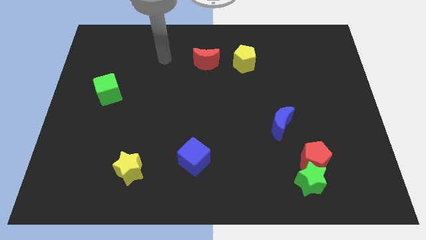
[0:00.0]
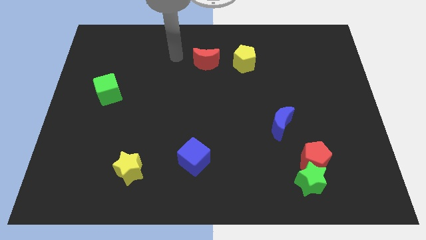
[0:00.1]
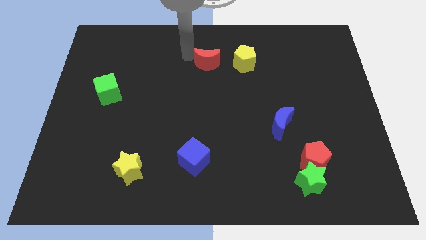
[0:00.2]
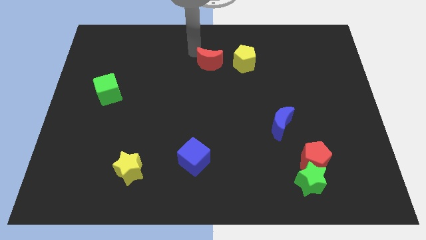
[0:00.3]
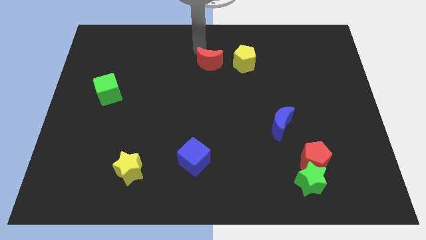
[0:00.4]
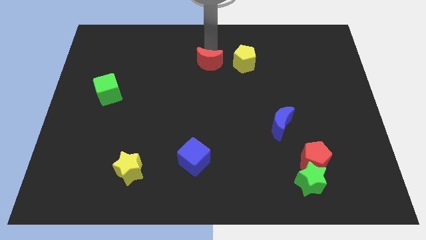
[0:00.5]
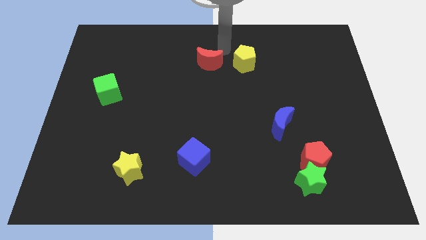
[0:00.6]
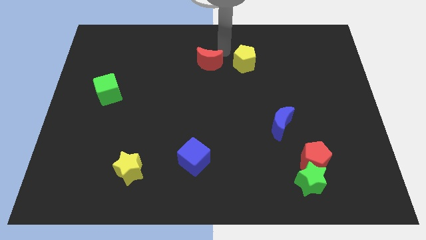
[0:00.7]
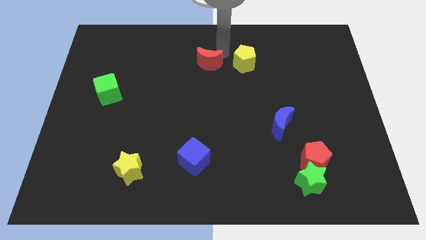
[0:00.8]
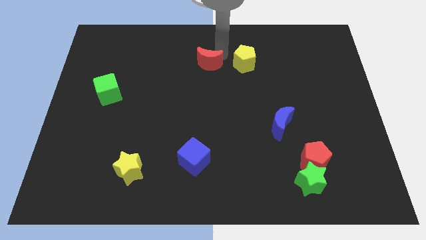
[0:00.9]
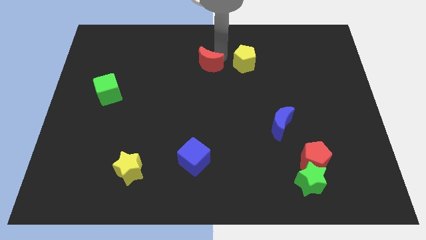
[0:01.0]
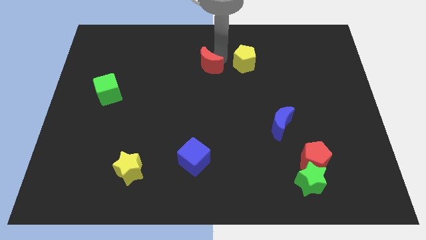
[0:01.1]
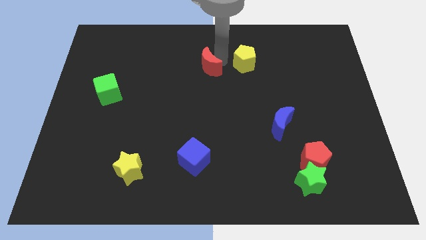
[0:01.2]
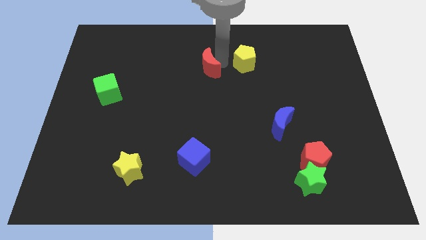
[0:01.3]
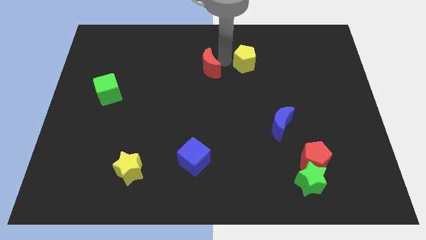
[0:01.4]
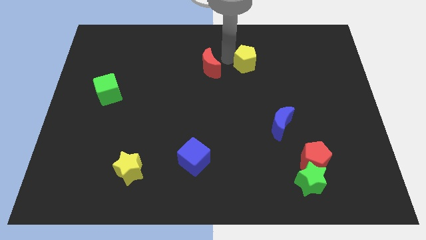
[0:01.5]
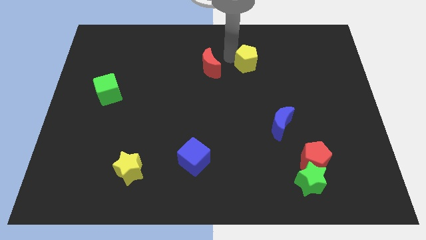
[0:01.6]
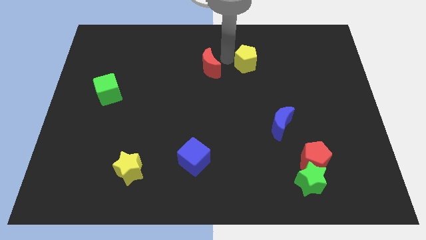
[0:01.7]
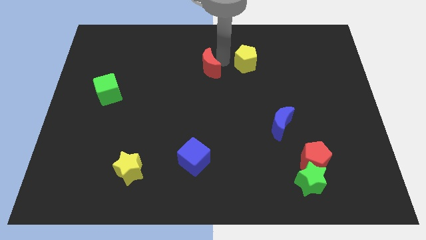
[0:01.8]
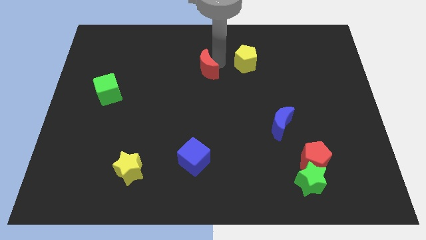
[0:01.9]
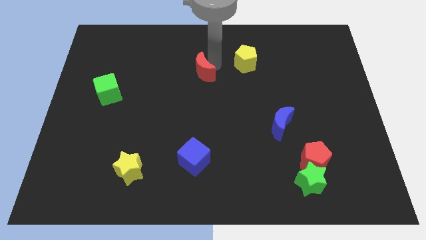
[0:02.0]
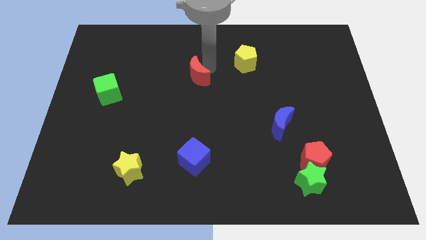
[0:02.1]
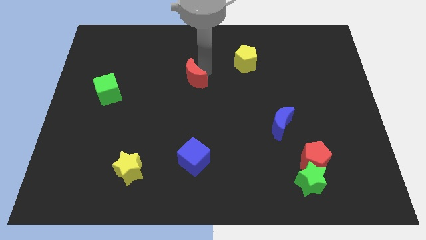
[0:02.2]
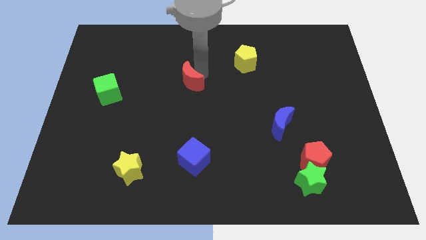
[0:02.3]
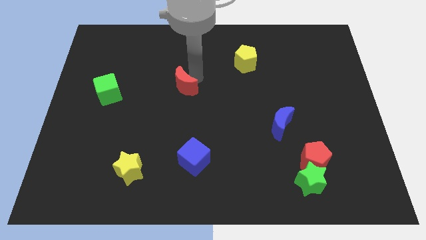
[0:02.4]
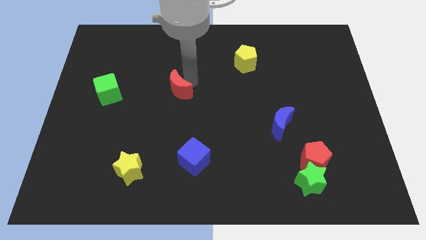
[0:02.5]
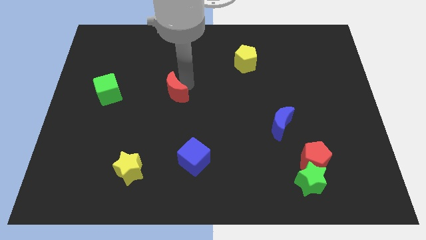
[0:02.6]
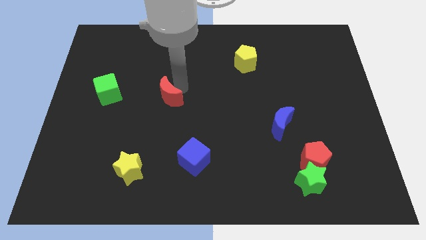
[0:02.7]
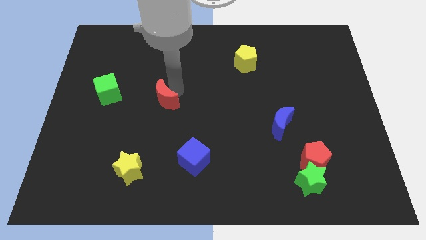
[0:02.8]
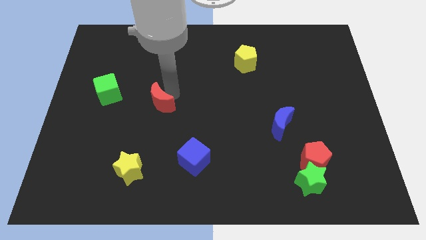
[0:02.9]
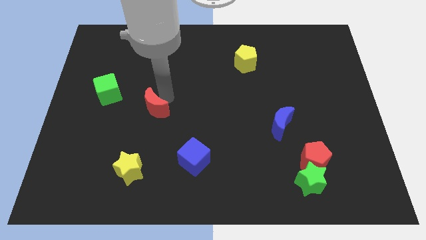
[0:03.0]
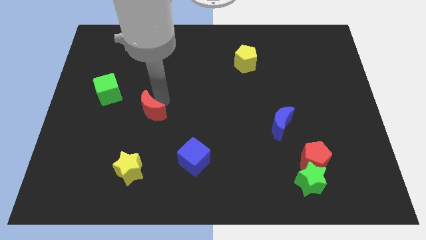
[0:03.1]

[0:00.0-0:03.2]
slide the red moon diagonally down and to the left

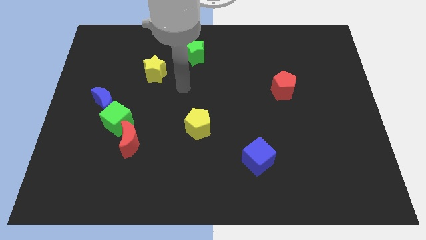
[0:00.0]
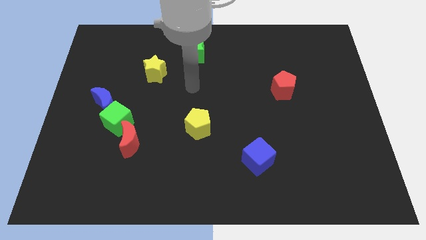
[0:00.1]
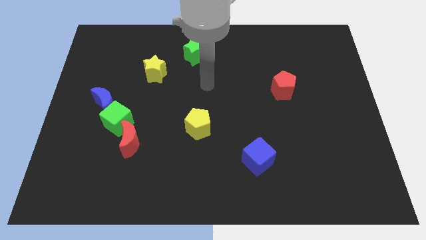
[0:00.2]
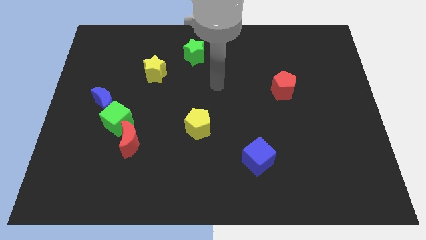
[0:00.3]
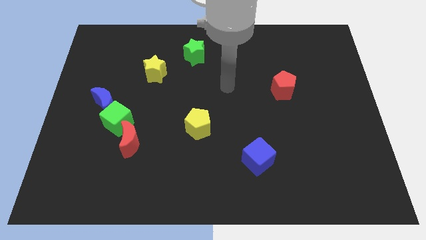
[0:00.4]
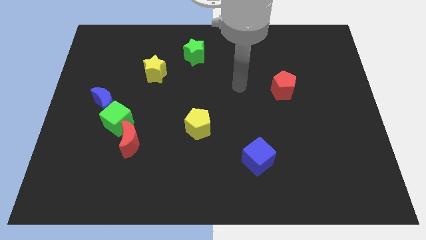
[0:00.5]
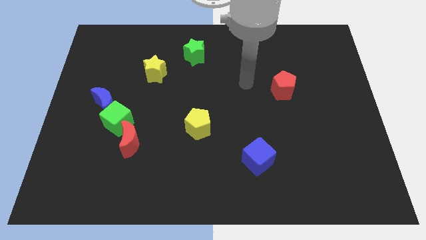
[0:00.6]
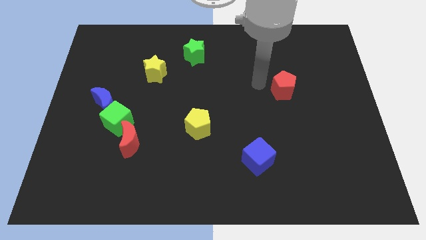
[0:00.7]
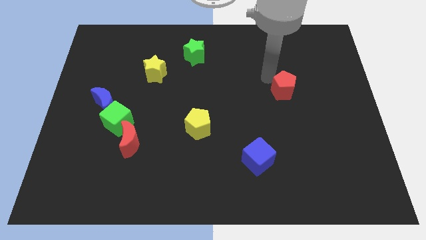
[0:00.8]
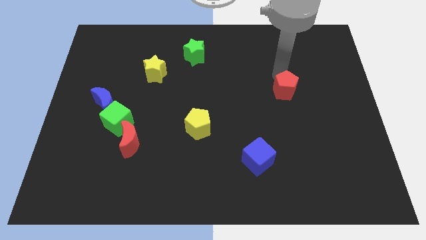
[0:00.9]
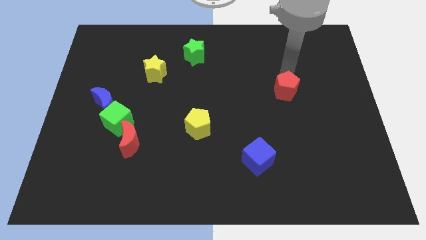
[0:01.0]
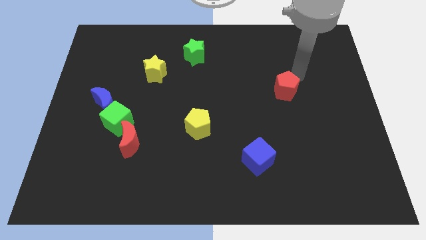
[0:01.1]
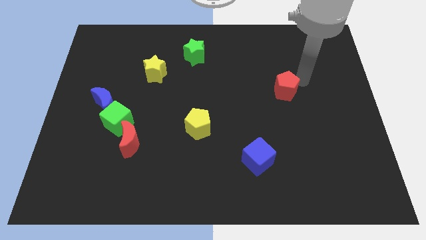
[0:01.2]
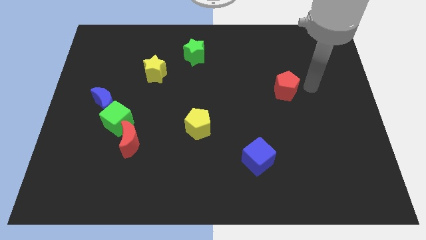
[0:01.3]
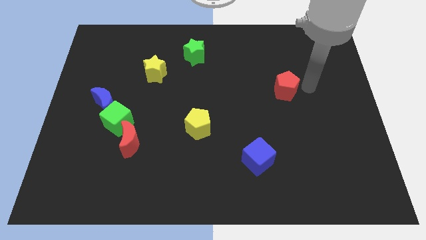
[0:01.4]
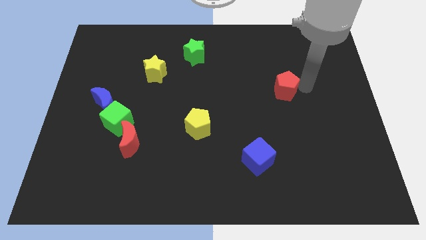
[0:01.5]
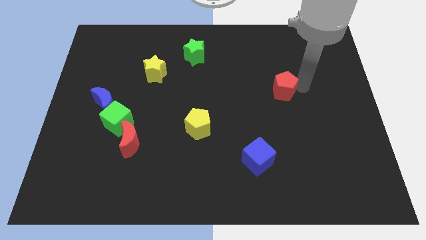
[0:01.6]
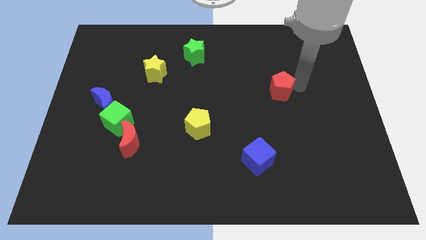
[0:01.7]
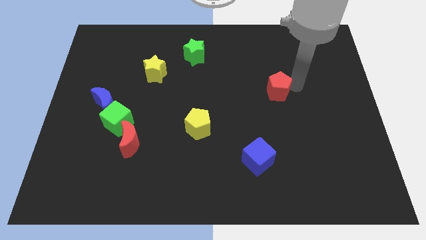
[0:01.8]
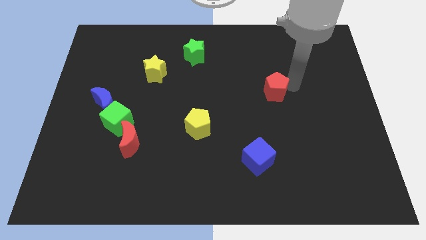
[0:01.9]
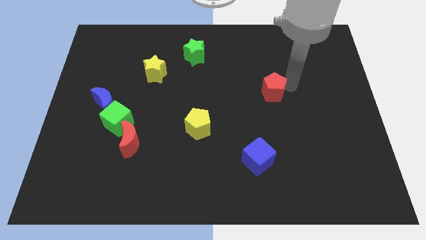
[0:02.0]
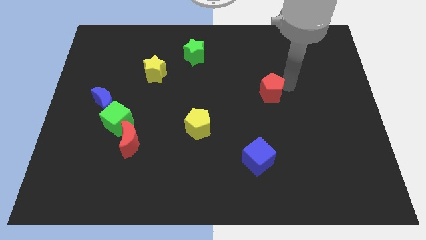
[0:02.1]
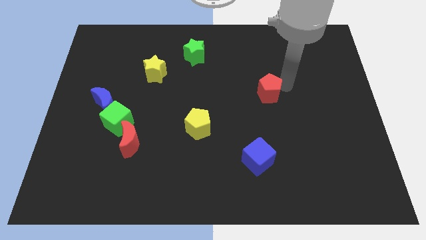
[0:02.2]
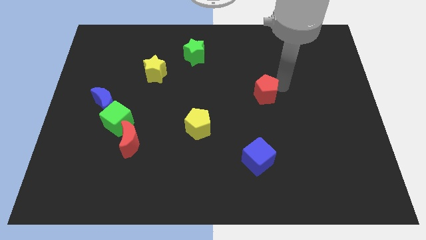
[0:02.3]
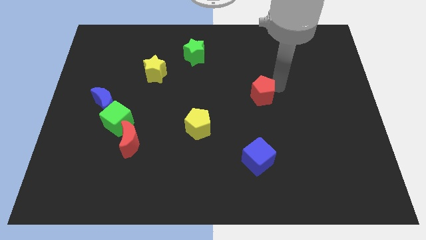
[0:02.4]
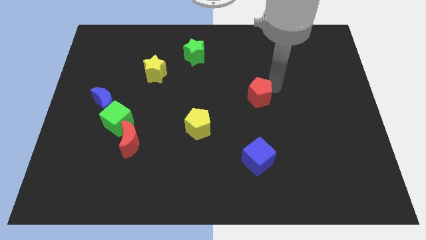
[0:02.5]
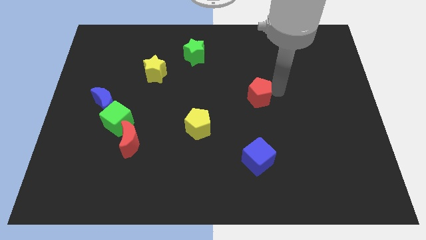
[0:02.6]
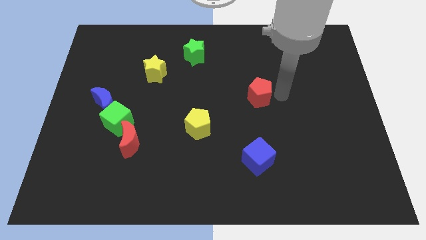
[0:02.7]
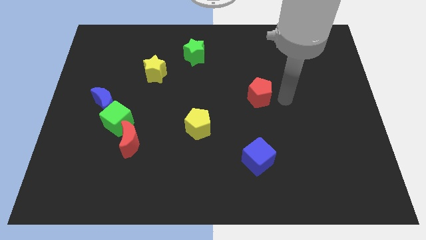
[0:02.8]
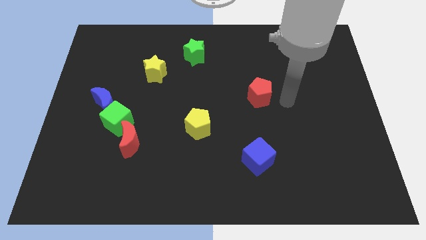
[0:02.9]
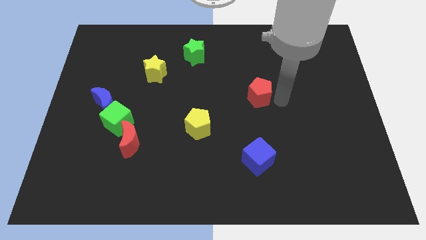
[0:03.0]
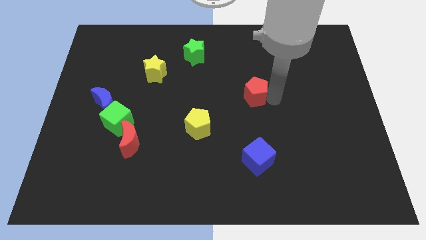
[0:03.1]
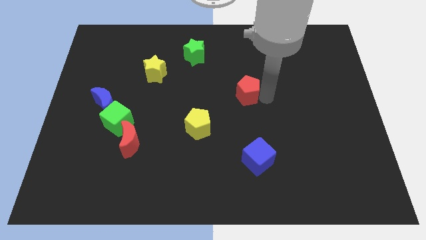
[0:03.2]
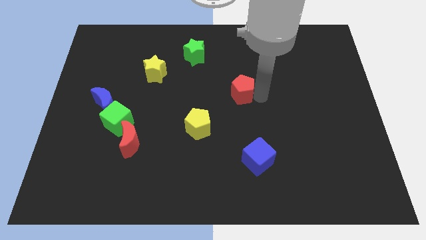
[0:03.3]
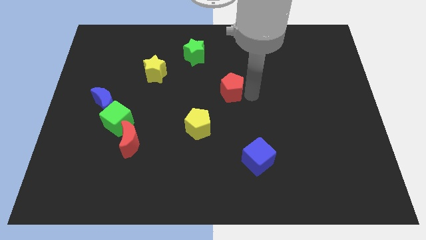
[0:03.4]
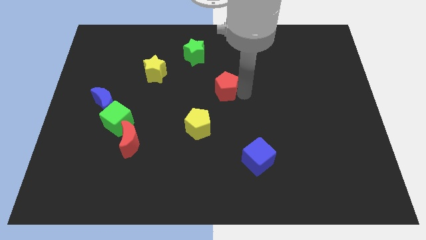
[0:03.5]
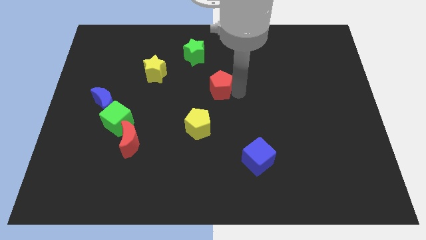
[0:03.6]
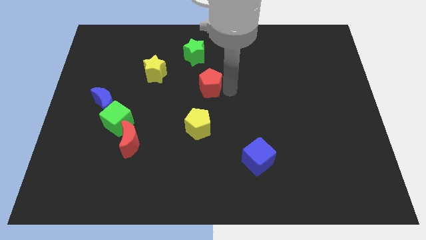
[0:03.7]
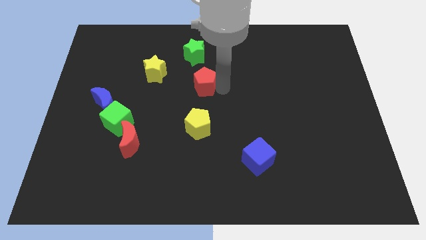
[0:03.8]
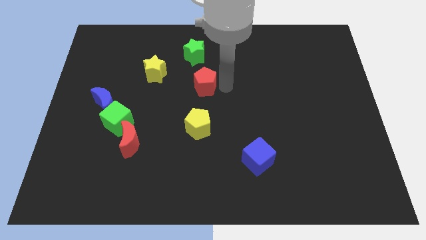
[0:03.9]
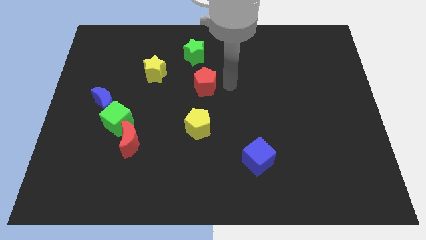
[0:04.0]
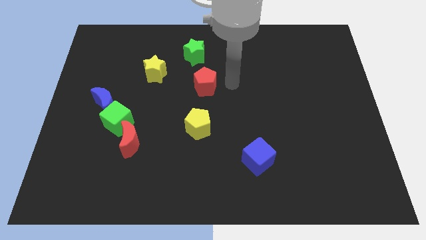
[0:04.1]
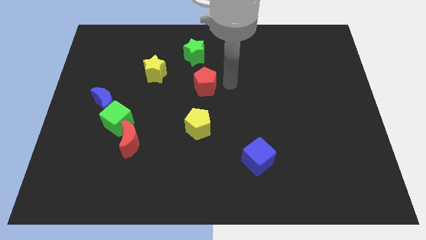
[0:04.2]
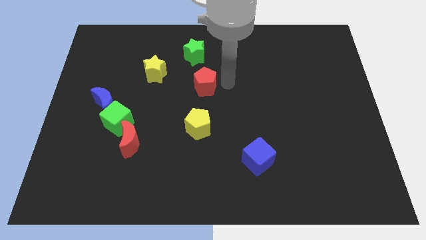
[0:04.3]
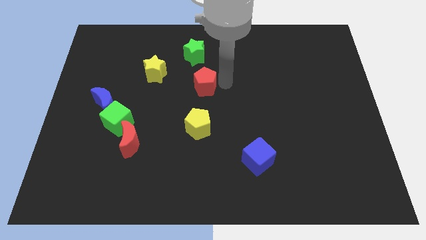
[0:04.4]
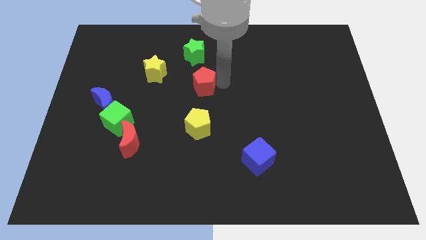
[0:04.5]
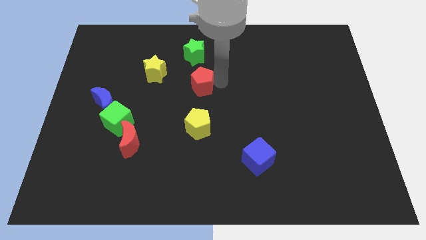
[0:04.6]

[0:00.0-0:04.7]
move the red pentagon to the left
